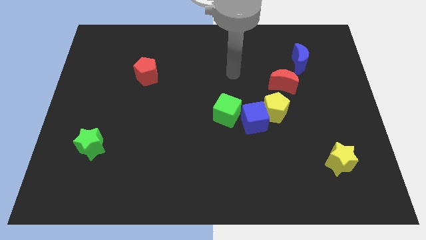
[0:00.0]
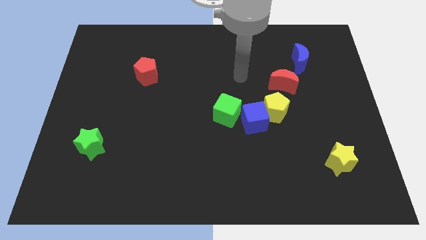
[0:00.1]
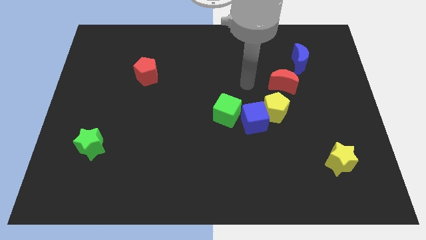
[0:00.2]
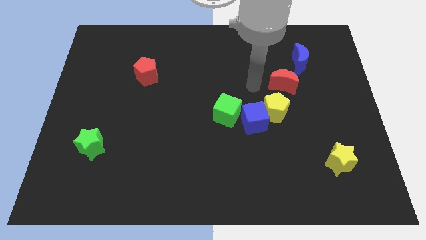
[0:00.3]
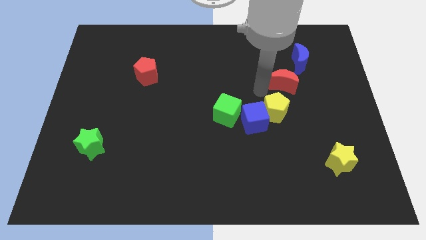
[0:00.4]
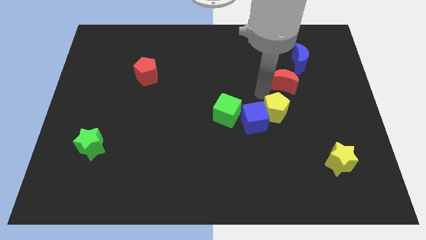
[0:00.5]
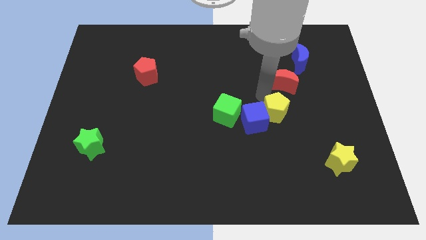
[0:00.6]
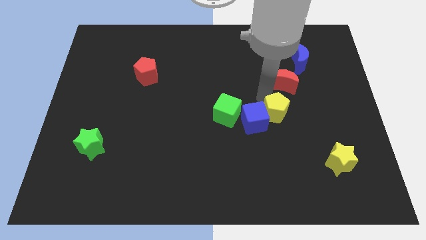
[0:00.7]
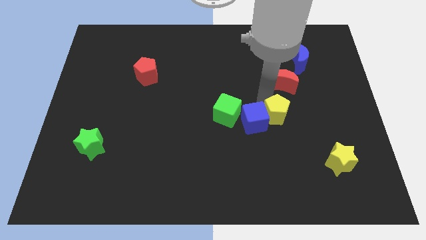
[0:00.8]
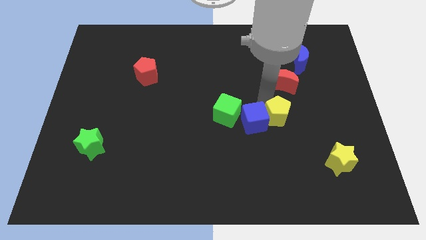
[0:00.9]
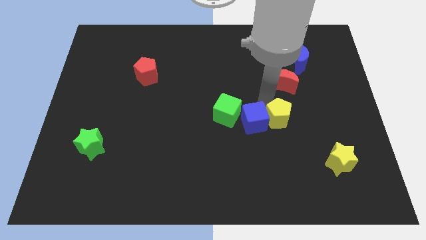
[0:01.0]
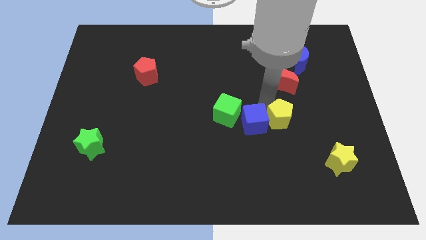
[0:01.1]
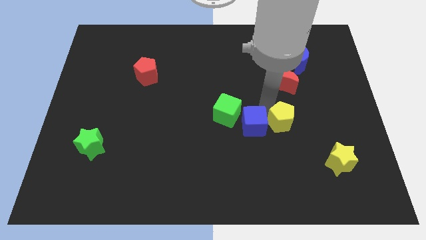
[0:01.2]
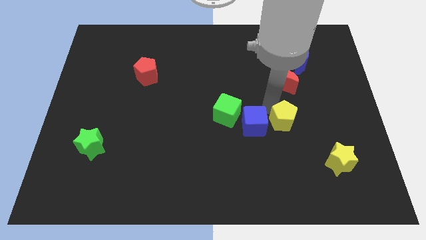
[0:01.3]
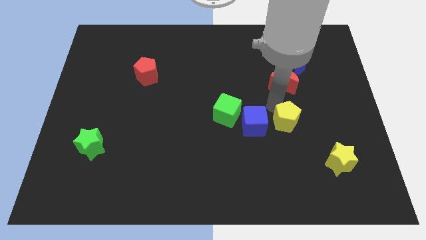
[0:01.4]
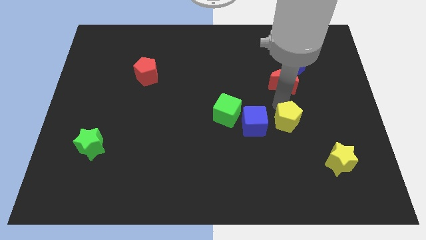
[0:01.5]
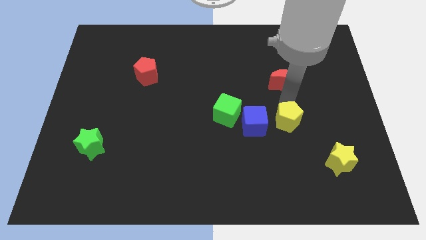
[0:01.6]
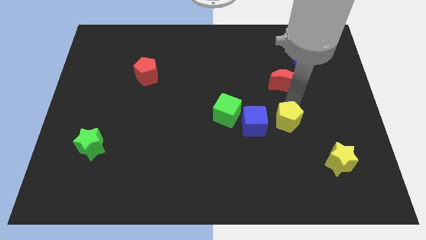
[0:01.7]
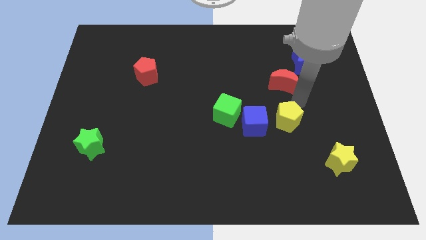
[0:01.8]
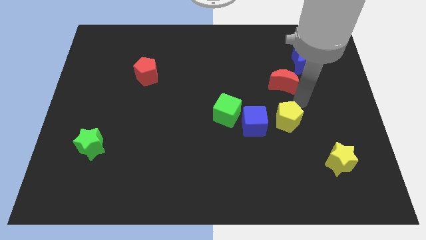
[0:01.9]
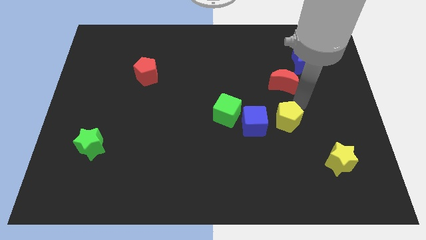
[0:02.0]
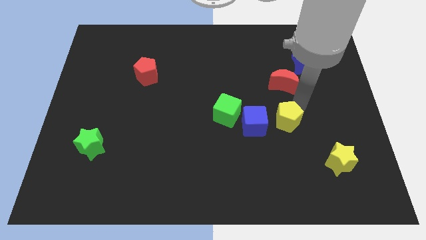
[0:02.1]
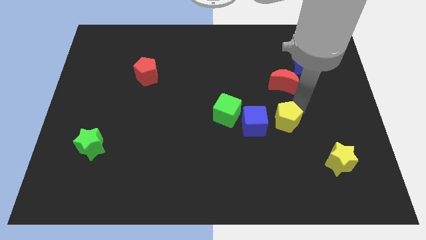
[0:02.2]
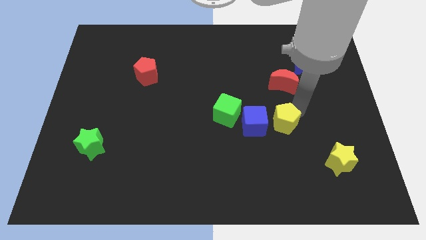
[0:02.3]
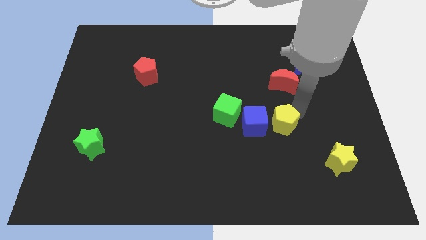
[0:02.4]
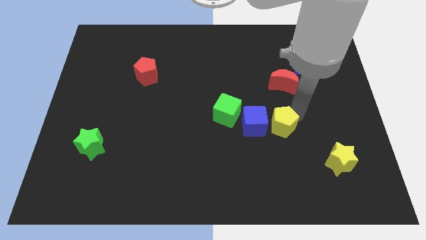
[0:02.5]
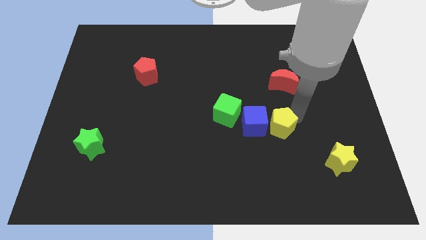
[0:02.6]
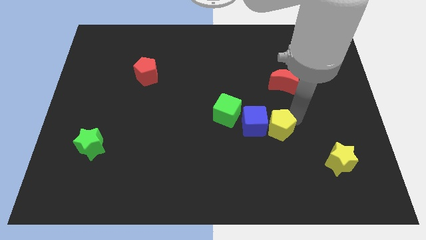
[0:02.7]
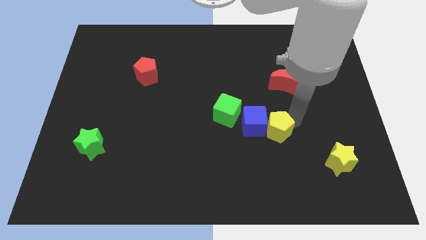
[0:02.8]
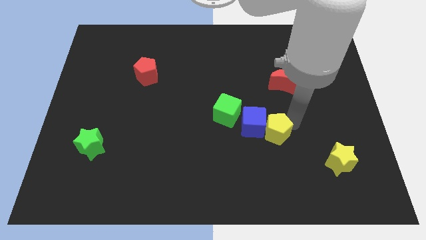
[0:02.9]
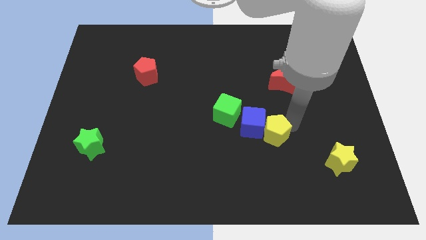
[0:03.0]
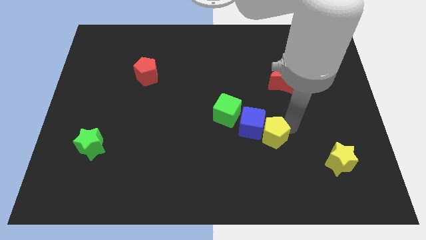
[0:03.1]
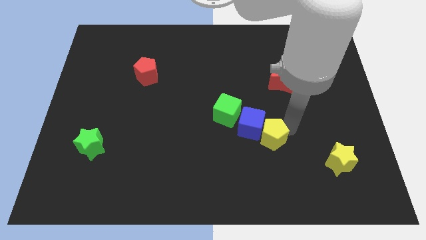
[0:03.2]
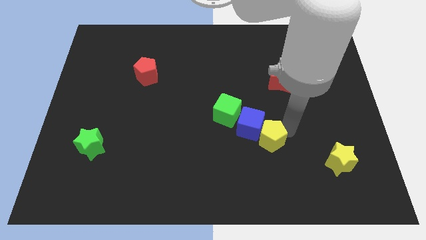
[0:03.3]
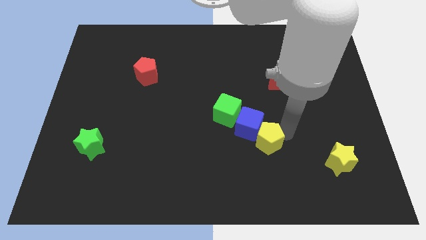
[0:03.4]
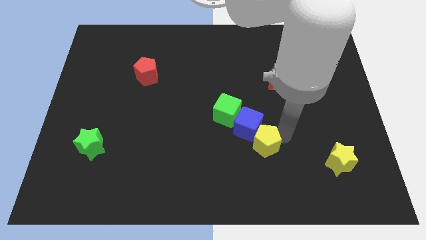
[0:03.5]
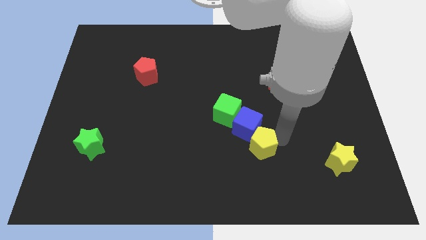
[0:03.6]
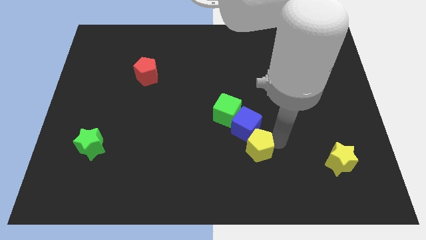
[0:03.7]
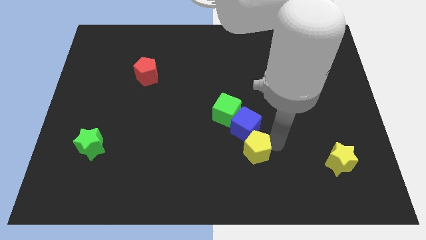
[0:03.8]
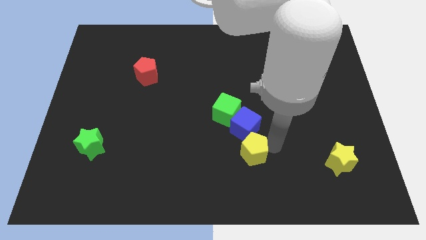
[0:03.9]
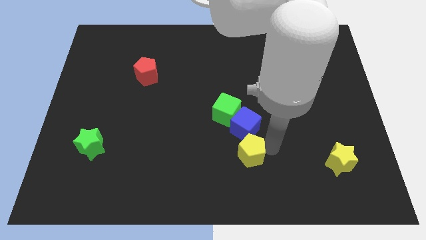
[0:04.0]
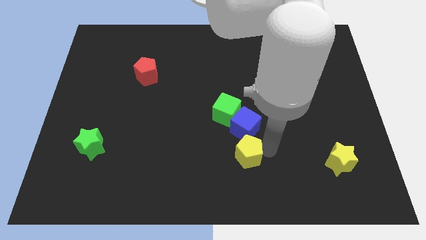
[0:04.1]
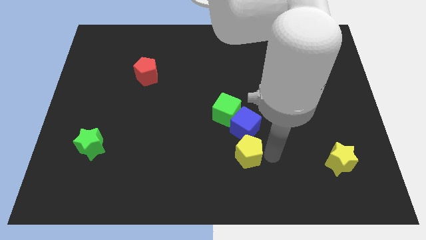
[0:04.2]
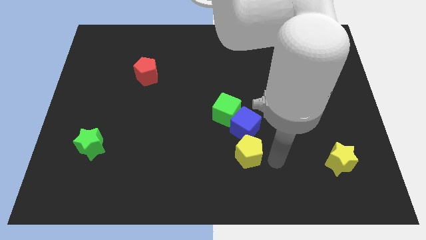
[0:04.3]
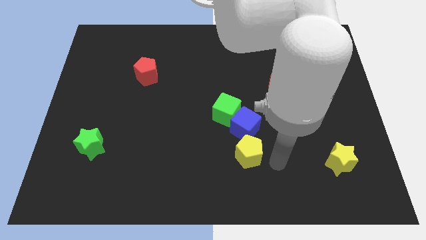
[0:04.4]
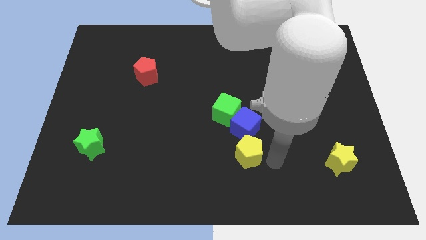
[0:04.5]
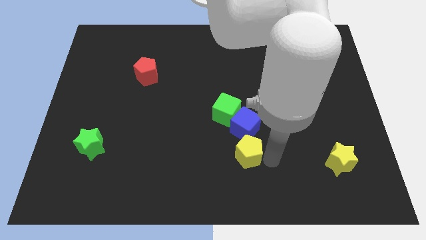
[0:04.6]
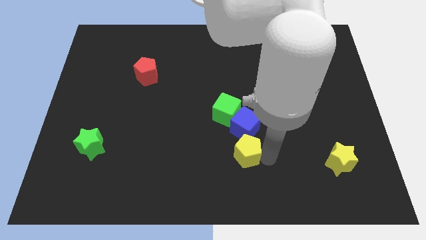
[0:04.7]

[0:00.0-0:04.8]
slide the yellow pentagon diagonally down and to the left of the blue cube
